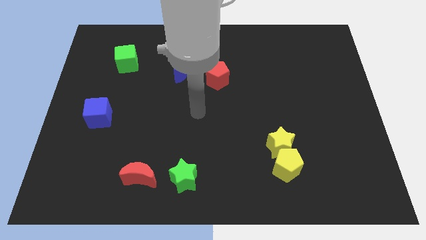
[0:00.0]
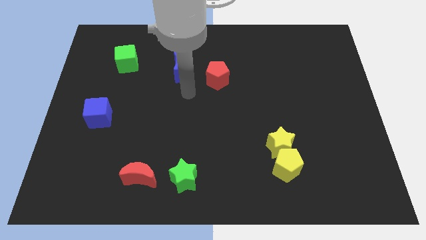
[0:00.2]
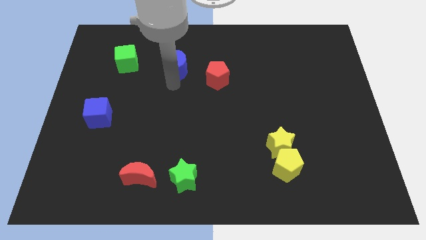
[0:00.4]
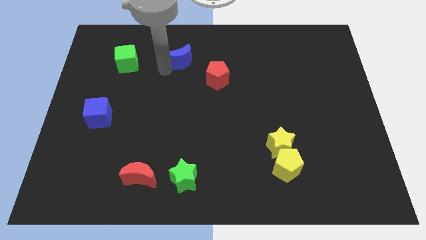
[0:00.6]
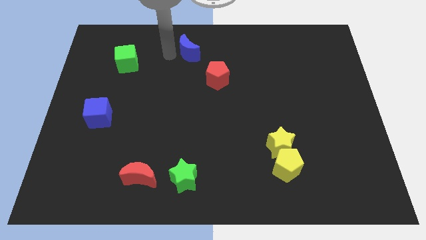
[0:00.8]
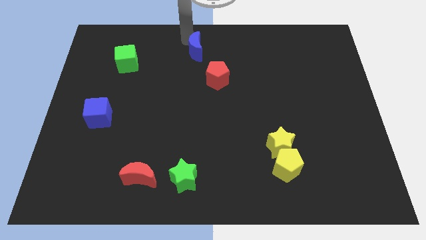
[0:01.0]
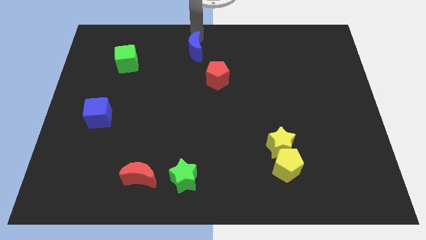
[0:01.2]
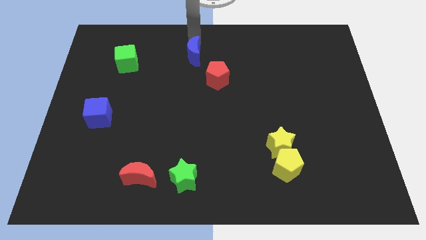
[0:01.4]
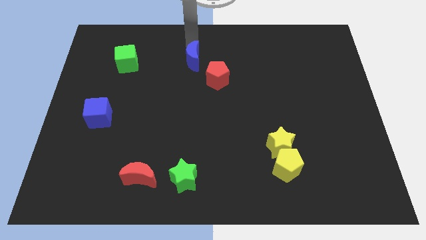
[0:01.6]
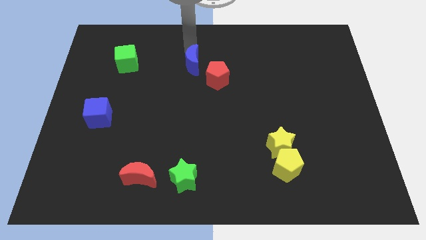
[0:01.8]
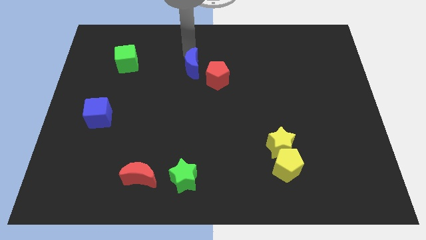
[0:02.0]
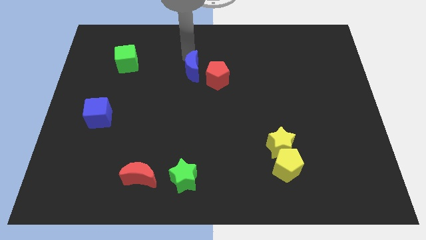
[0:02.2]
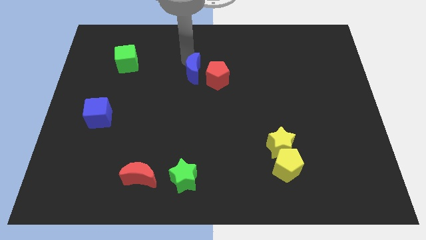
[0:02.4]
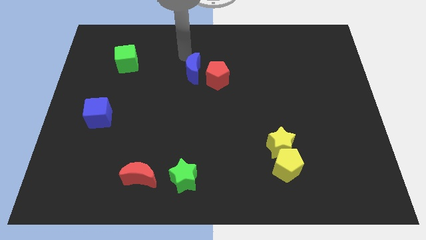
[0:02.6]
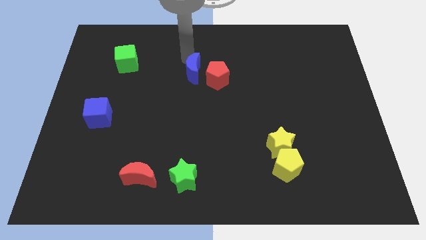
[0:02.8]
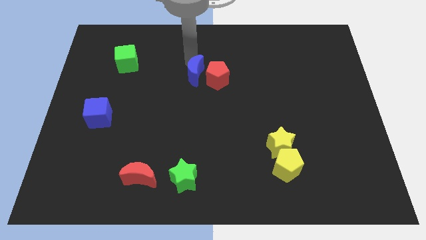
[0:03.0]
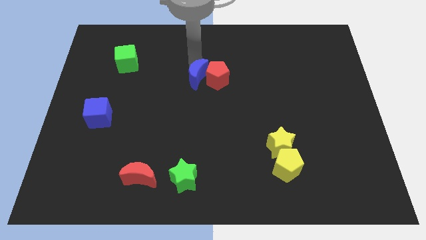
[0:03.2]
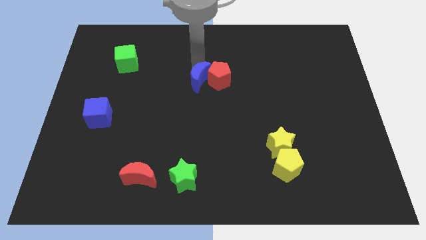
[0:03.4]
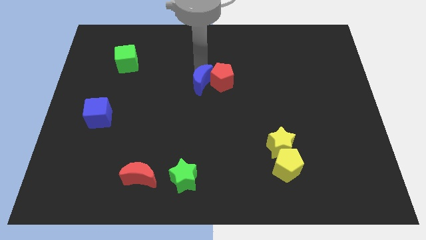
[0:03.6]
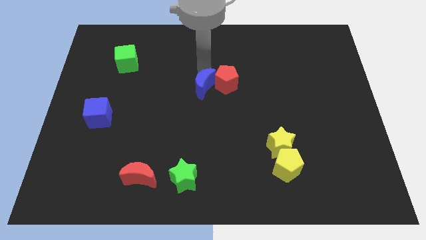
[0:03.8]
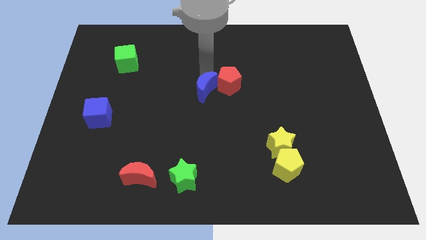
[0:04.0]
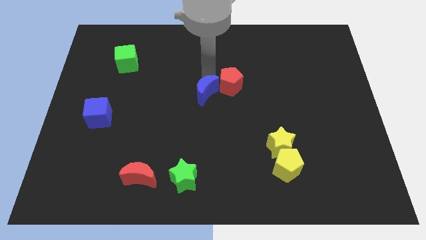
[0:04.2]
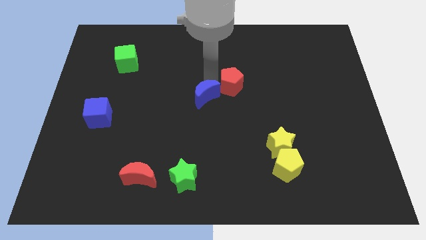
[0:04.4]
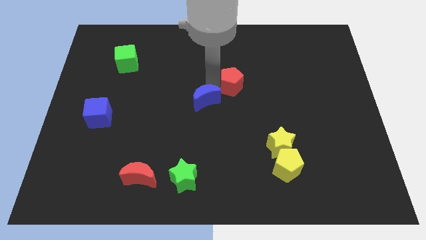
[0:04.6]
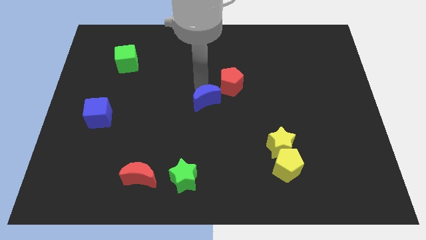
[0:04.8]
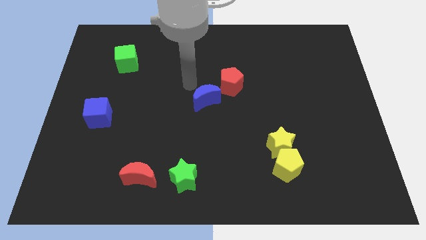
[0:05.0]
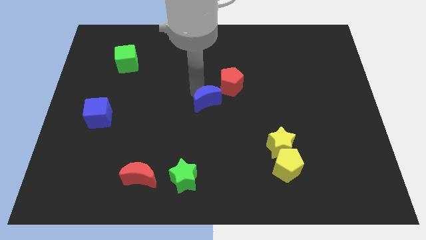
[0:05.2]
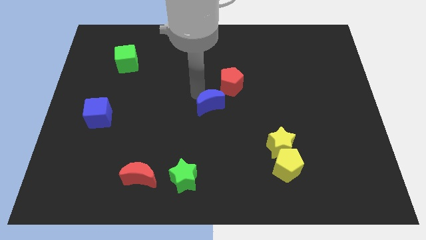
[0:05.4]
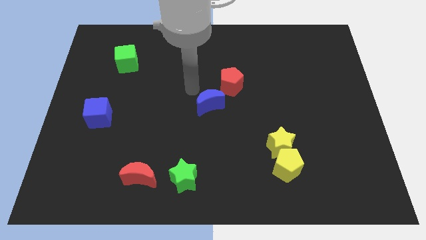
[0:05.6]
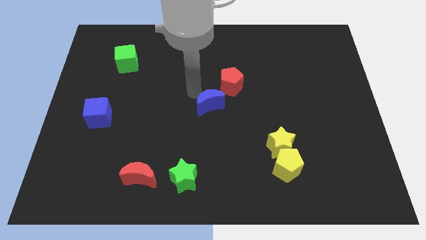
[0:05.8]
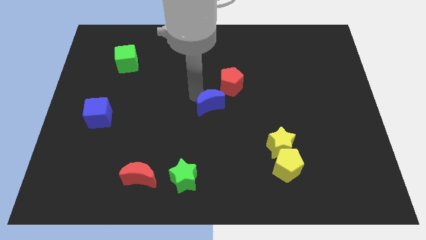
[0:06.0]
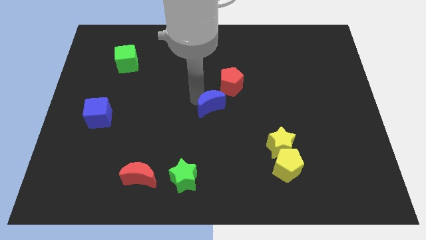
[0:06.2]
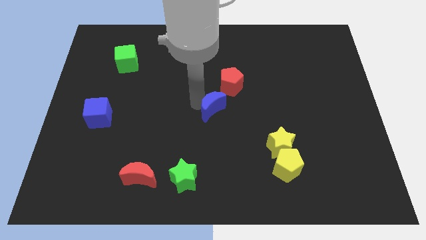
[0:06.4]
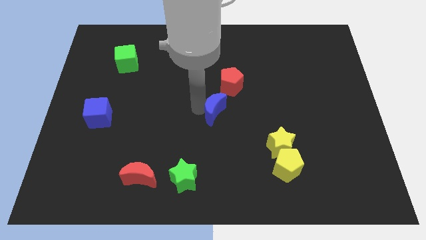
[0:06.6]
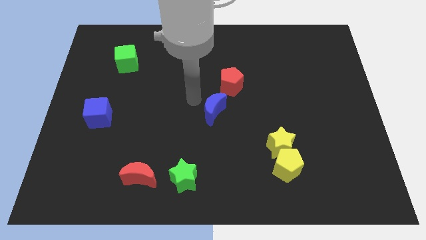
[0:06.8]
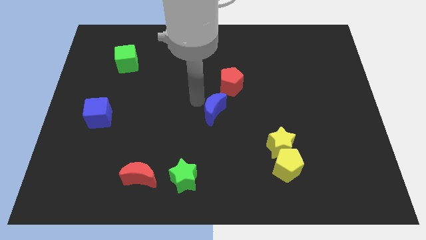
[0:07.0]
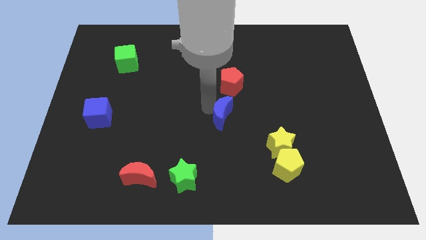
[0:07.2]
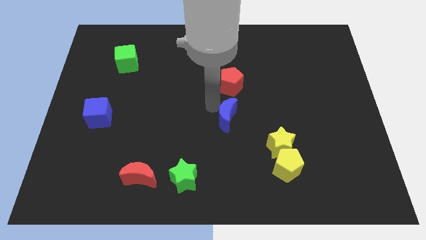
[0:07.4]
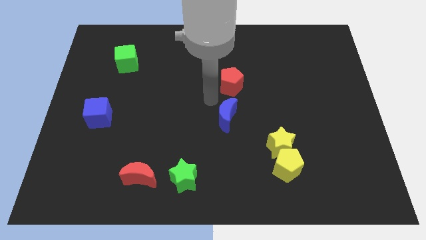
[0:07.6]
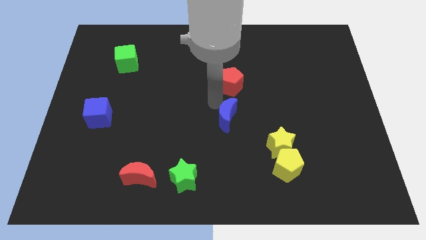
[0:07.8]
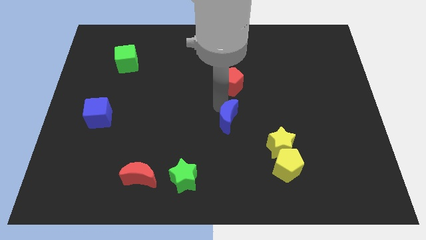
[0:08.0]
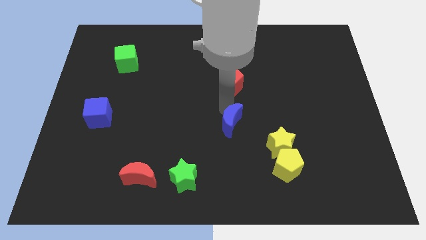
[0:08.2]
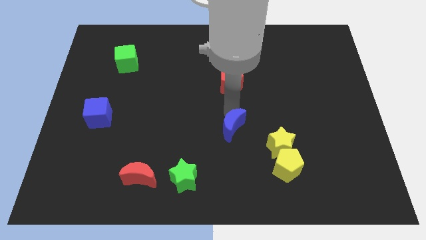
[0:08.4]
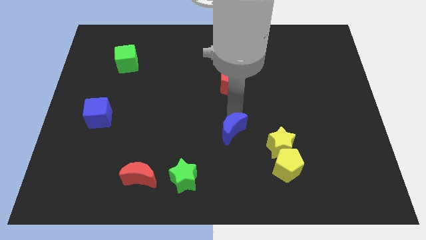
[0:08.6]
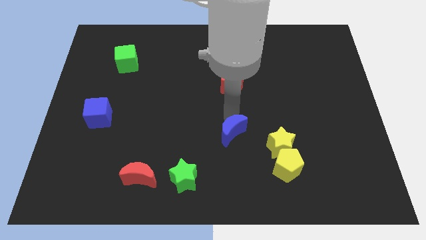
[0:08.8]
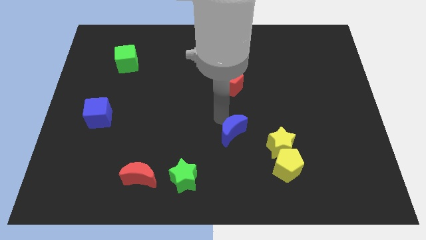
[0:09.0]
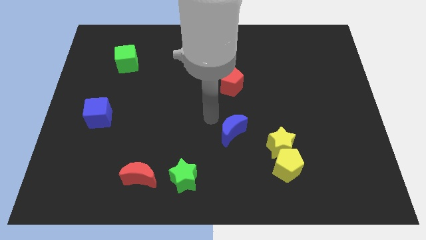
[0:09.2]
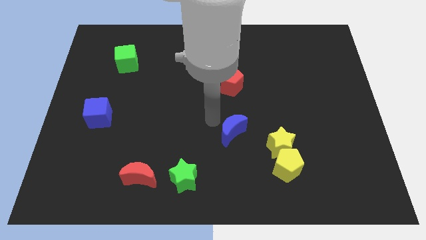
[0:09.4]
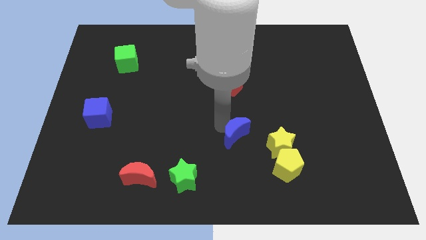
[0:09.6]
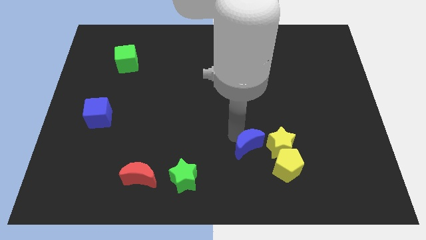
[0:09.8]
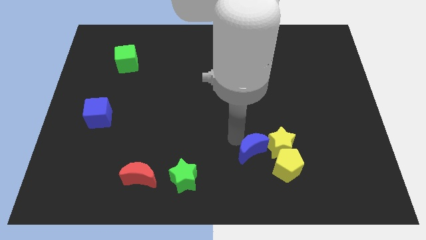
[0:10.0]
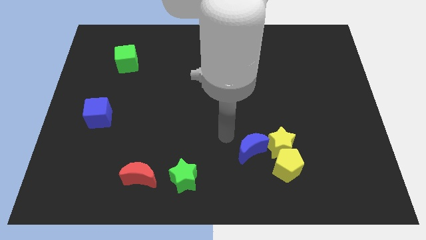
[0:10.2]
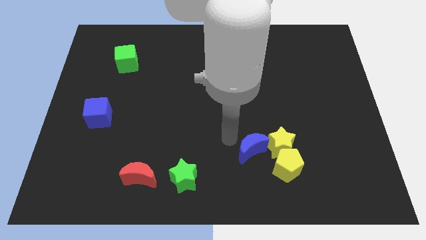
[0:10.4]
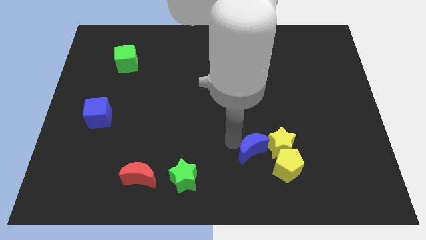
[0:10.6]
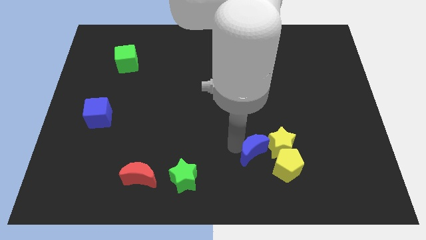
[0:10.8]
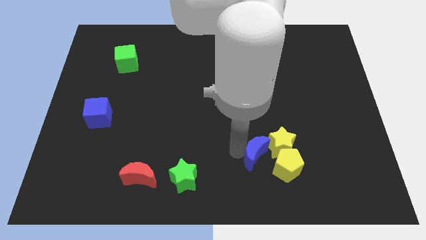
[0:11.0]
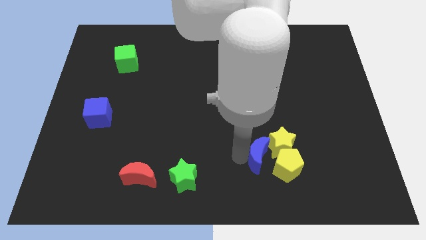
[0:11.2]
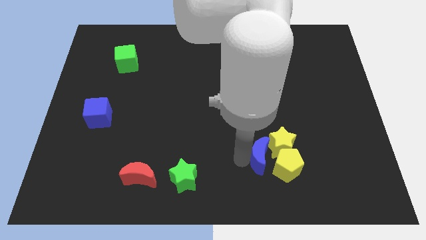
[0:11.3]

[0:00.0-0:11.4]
move the blue moon close to the yellow pentagon

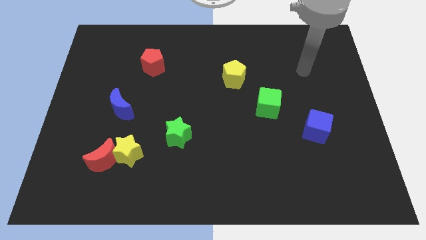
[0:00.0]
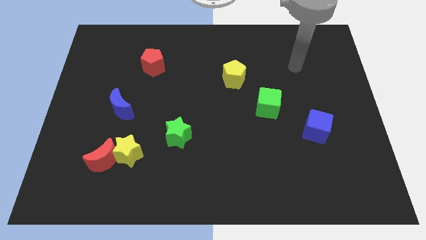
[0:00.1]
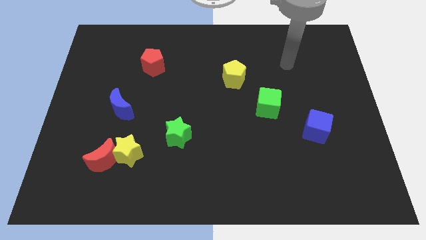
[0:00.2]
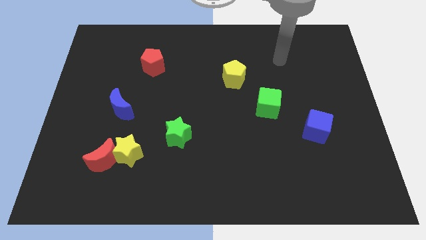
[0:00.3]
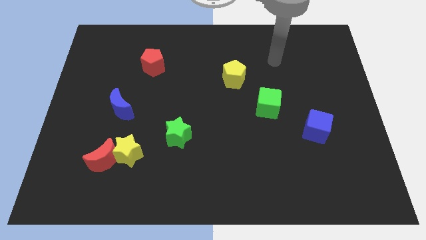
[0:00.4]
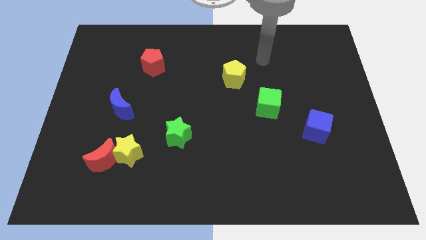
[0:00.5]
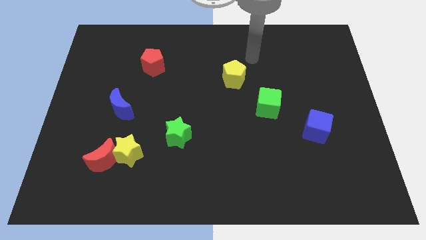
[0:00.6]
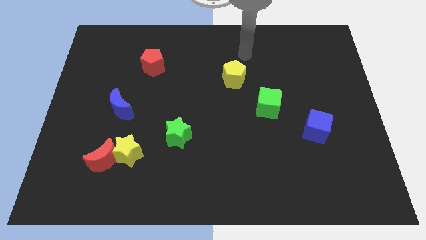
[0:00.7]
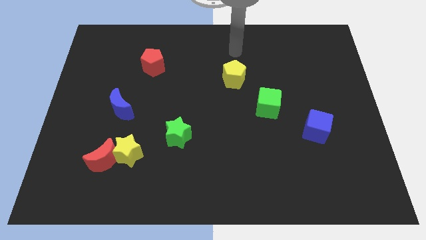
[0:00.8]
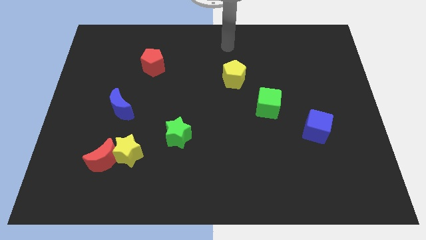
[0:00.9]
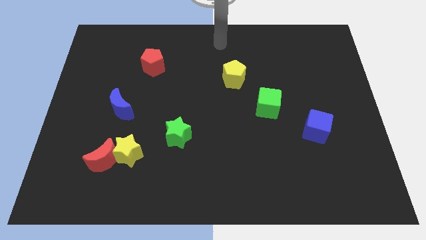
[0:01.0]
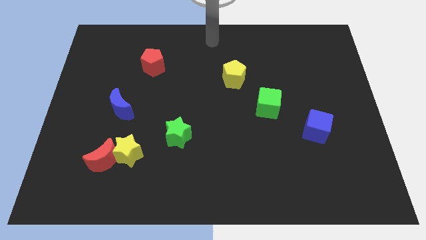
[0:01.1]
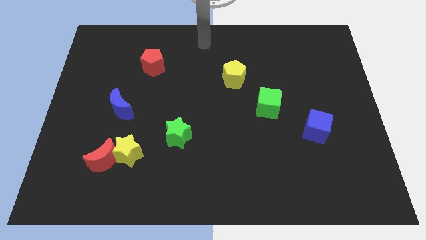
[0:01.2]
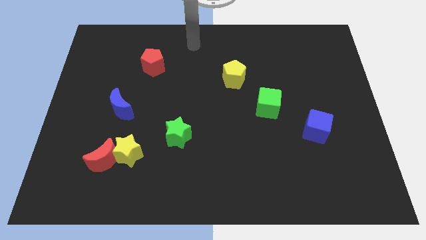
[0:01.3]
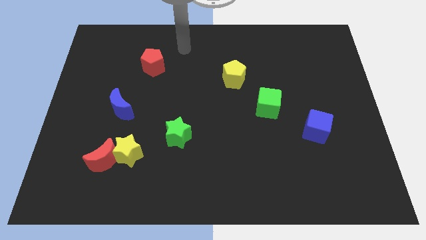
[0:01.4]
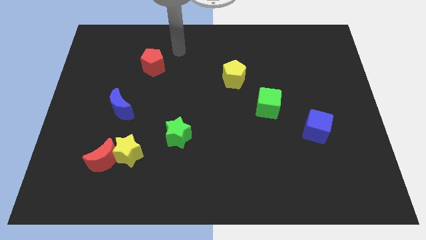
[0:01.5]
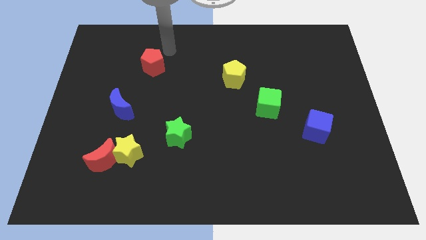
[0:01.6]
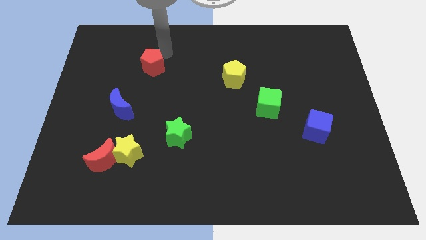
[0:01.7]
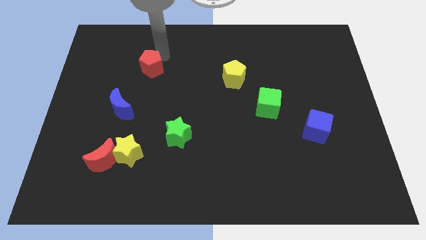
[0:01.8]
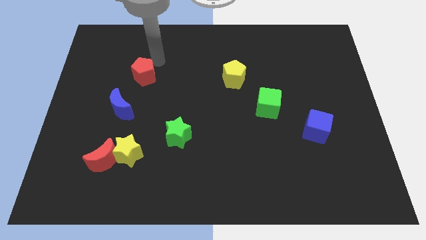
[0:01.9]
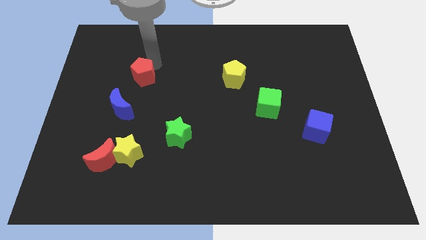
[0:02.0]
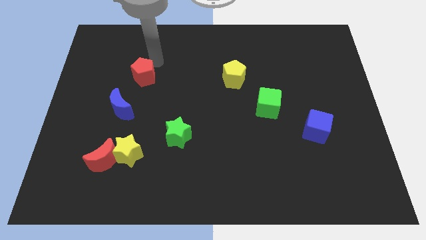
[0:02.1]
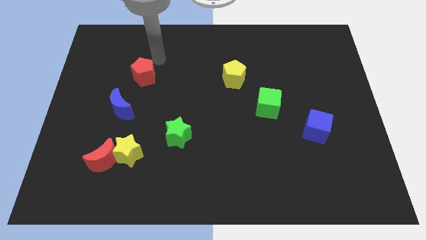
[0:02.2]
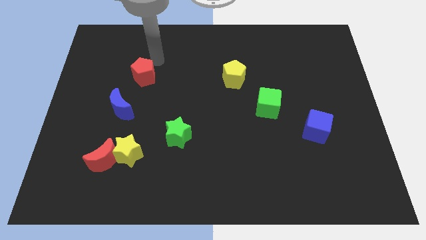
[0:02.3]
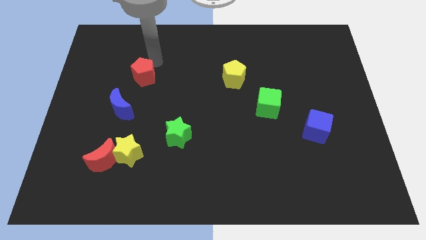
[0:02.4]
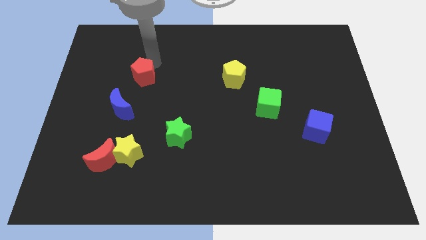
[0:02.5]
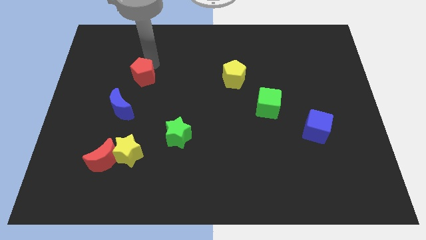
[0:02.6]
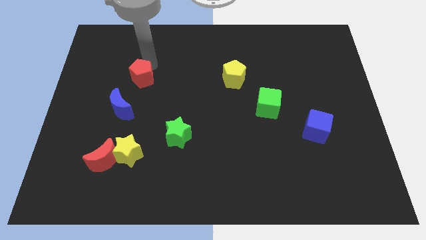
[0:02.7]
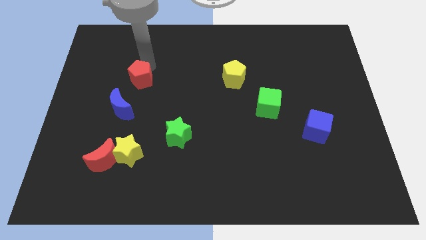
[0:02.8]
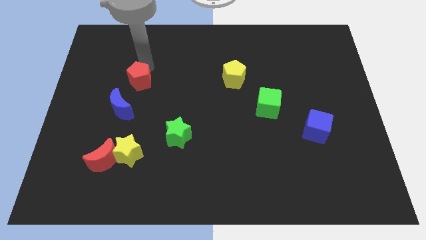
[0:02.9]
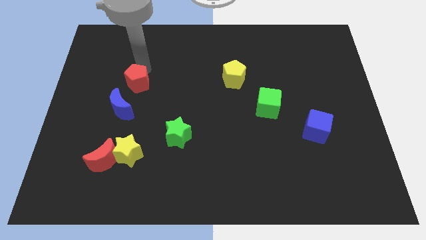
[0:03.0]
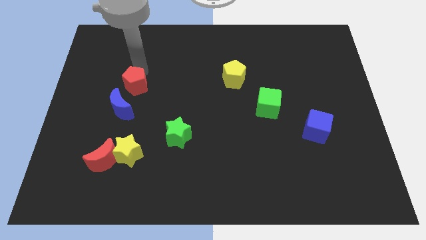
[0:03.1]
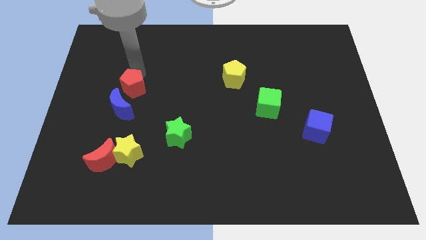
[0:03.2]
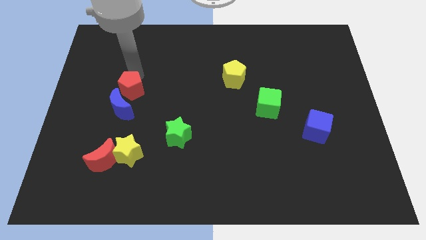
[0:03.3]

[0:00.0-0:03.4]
push the red pentagon close to the blue moon
